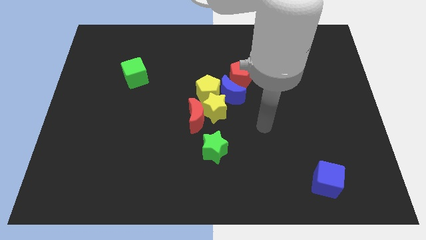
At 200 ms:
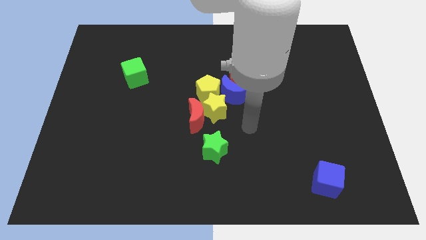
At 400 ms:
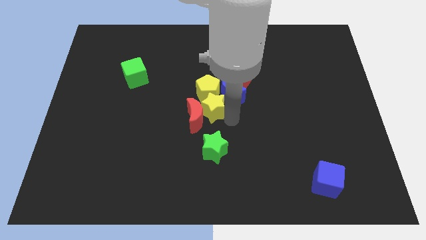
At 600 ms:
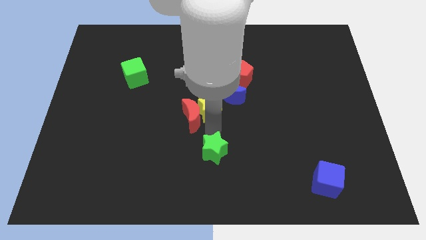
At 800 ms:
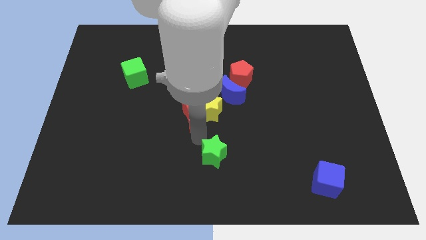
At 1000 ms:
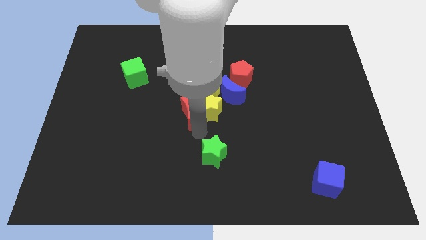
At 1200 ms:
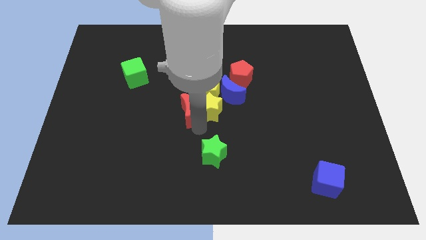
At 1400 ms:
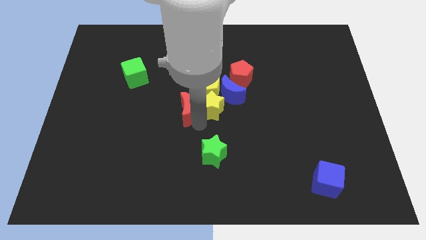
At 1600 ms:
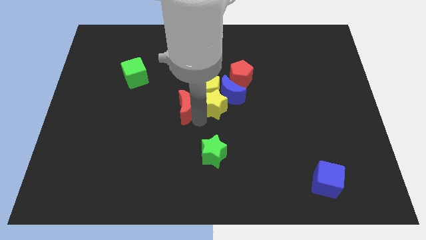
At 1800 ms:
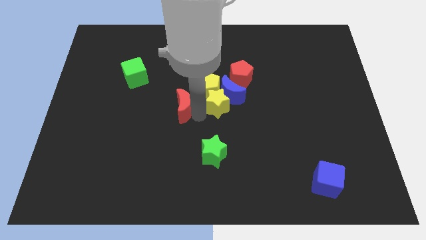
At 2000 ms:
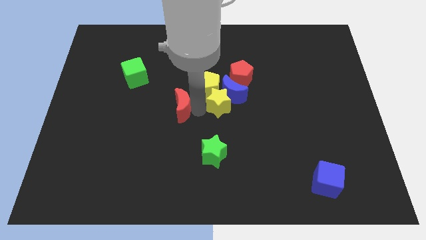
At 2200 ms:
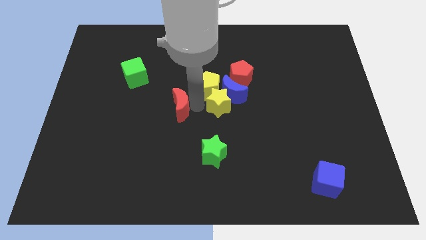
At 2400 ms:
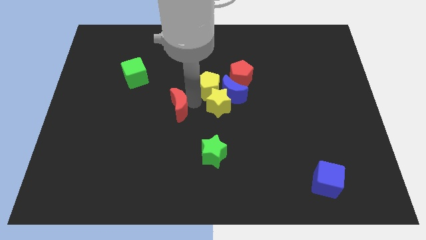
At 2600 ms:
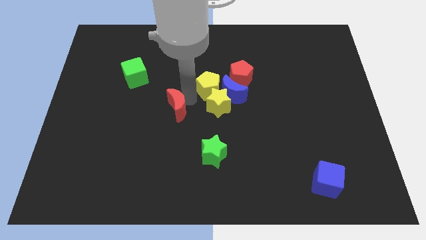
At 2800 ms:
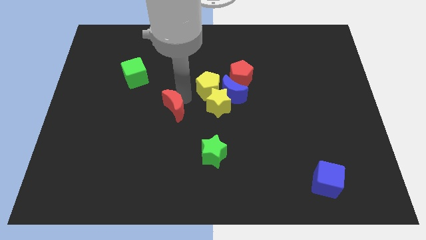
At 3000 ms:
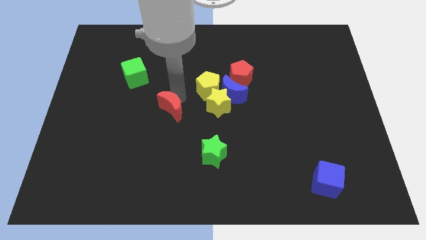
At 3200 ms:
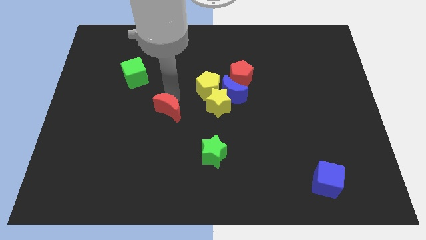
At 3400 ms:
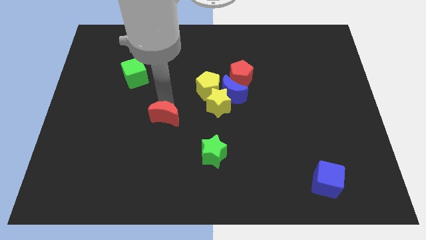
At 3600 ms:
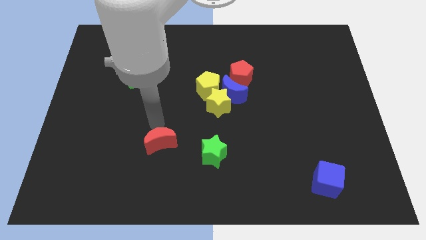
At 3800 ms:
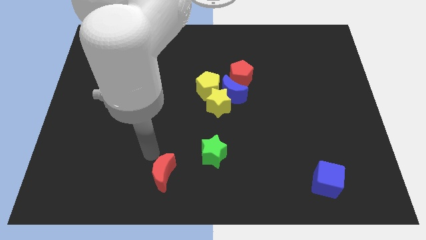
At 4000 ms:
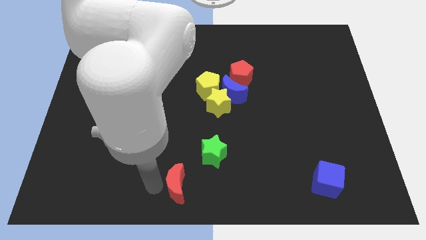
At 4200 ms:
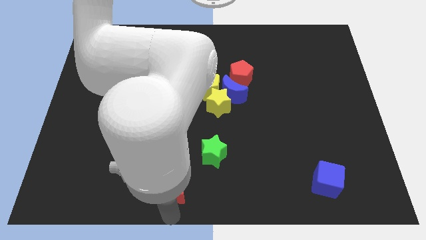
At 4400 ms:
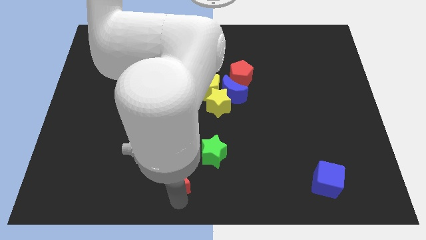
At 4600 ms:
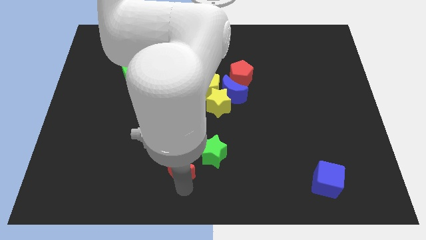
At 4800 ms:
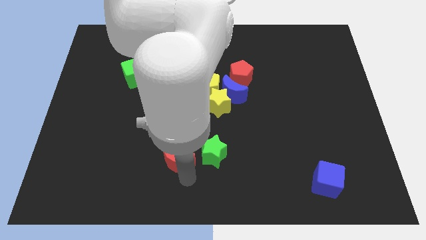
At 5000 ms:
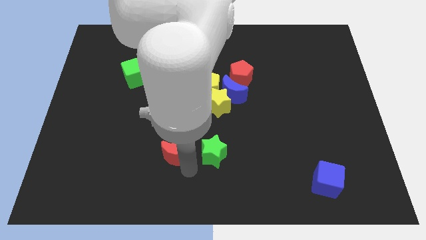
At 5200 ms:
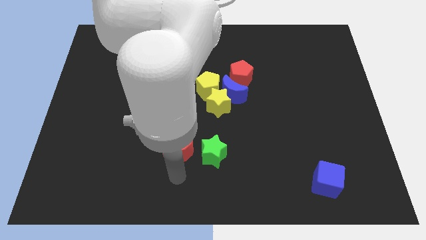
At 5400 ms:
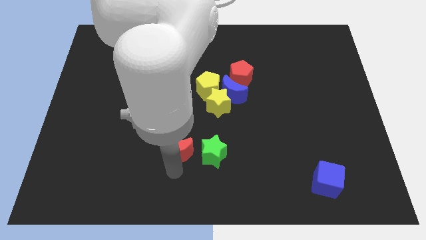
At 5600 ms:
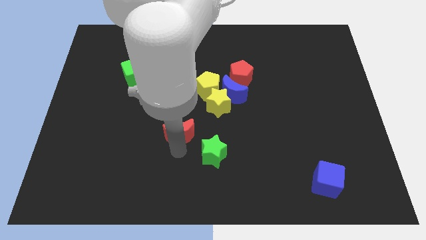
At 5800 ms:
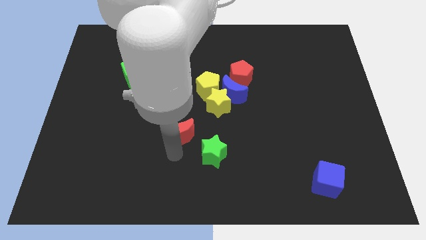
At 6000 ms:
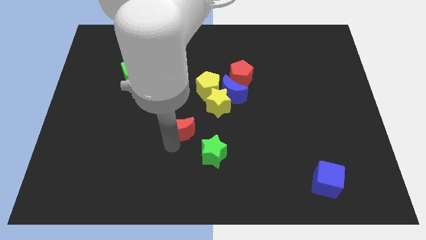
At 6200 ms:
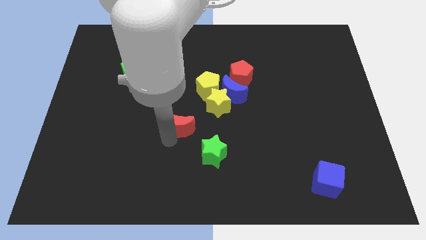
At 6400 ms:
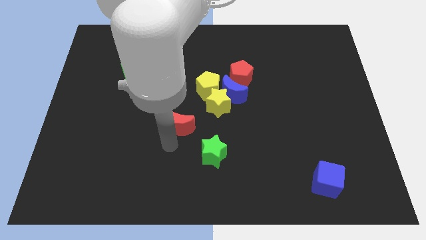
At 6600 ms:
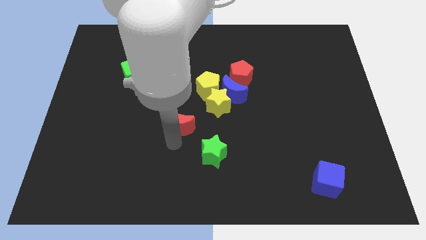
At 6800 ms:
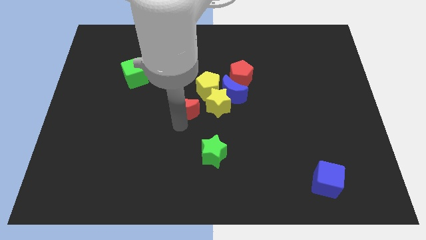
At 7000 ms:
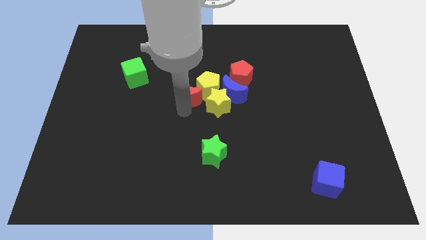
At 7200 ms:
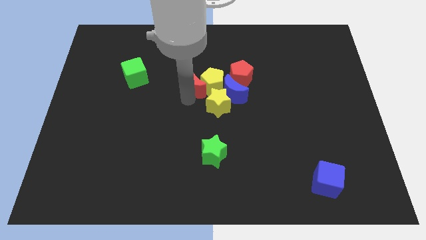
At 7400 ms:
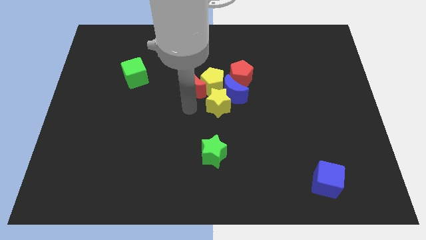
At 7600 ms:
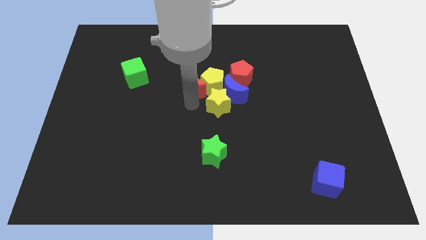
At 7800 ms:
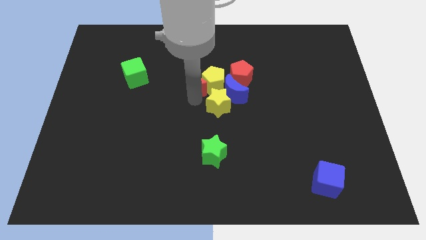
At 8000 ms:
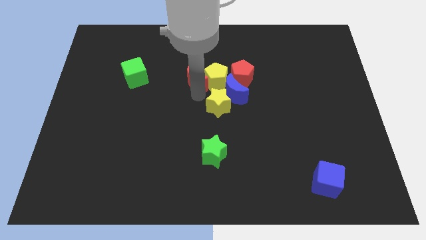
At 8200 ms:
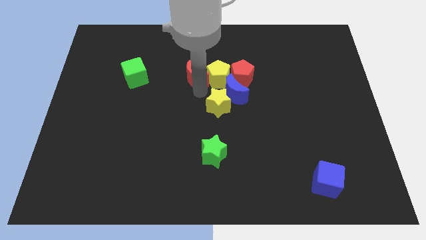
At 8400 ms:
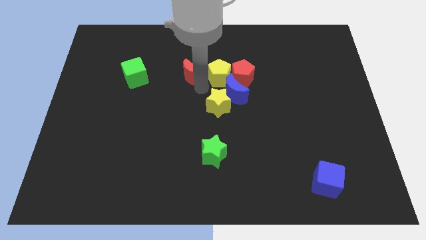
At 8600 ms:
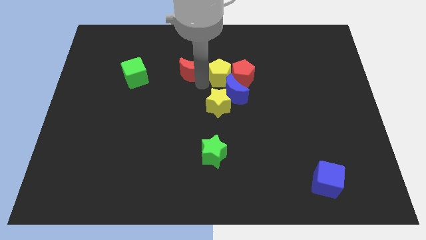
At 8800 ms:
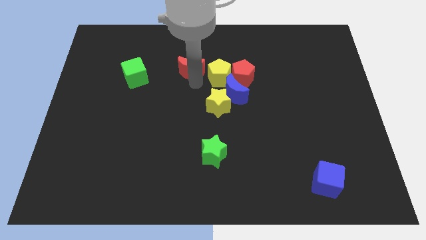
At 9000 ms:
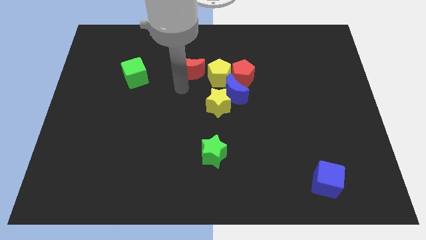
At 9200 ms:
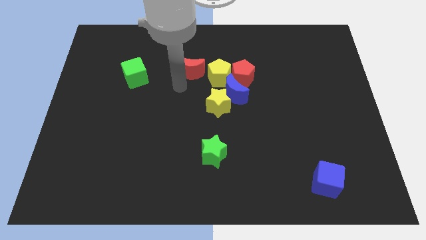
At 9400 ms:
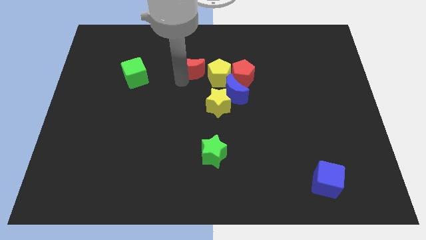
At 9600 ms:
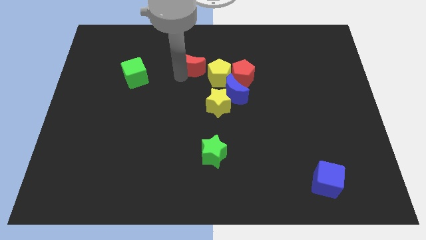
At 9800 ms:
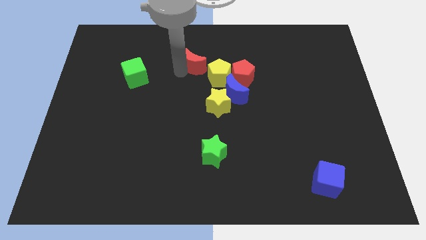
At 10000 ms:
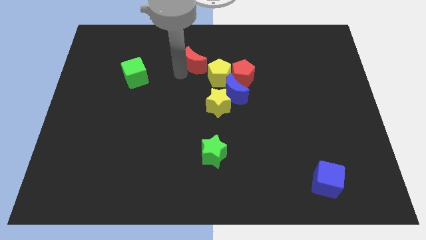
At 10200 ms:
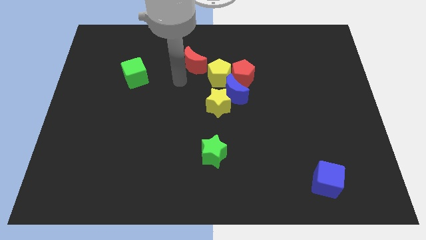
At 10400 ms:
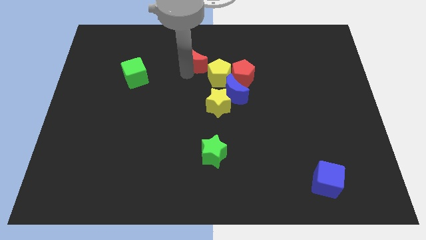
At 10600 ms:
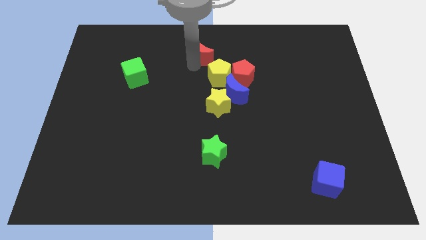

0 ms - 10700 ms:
slide the red moon to the top

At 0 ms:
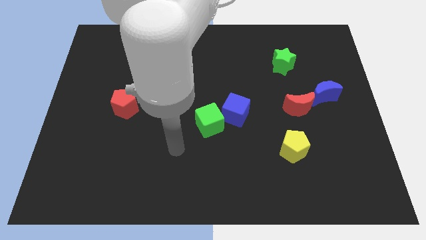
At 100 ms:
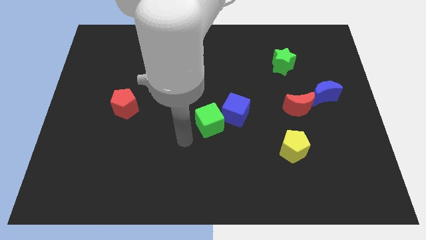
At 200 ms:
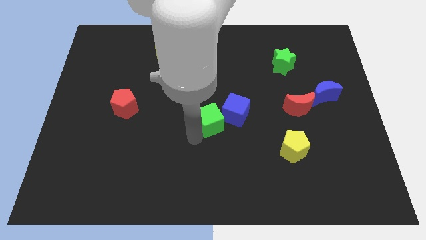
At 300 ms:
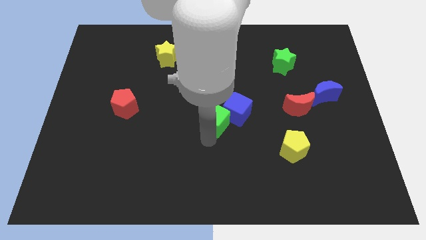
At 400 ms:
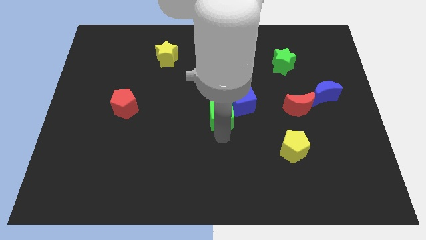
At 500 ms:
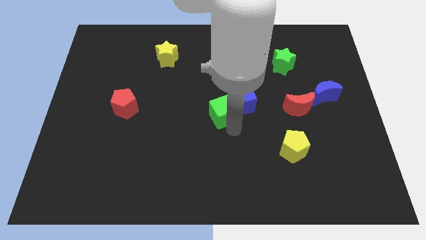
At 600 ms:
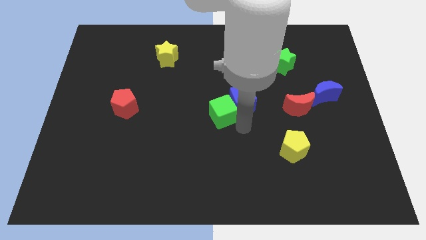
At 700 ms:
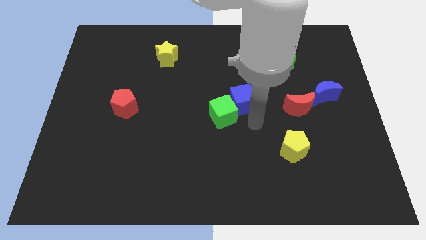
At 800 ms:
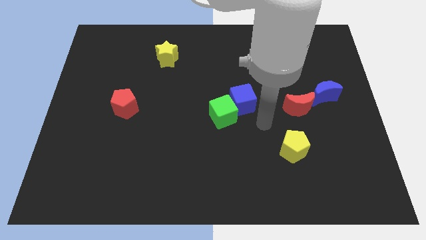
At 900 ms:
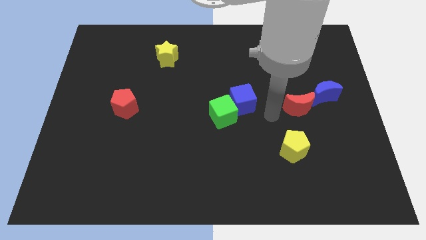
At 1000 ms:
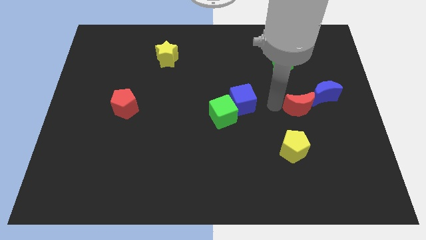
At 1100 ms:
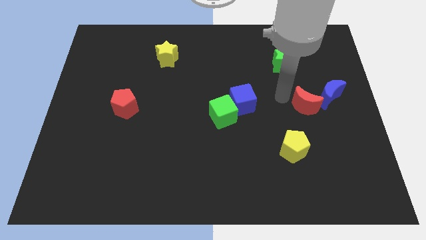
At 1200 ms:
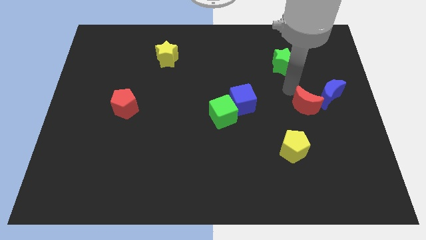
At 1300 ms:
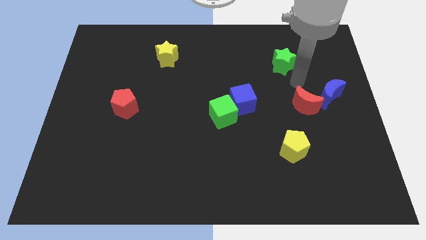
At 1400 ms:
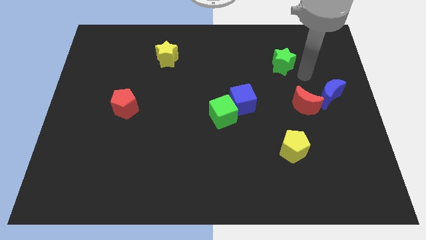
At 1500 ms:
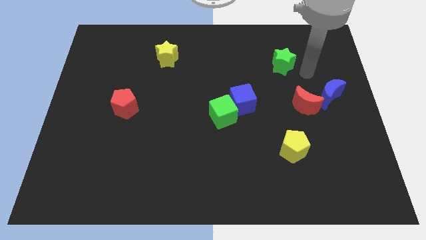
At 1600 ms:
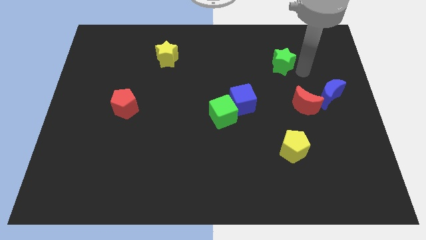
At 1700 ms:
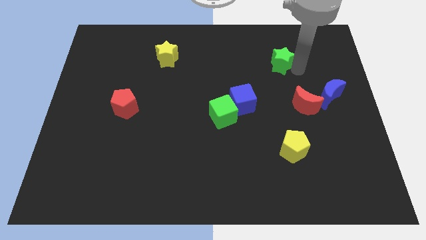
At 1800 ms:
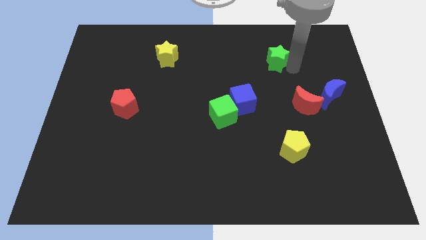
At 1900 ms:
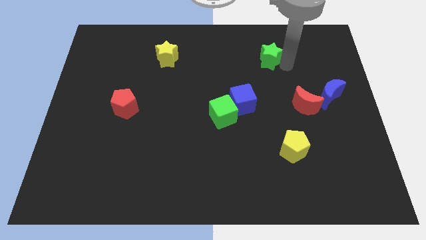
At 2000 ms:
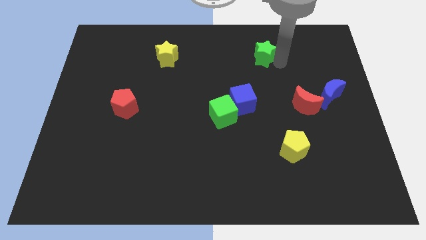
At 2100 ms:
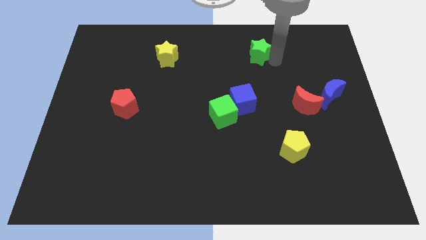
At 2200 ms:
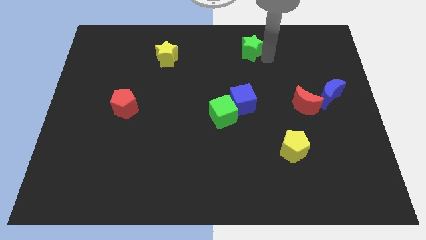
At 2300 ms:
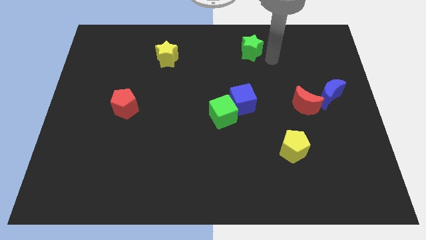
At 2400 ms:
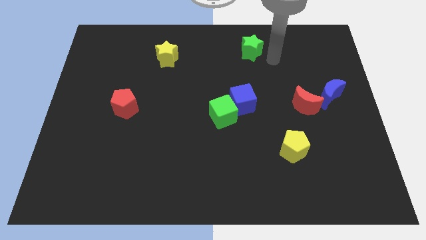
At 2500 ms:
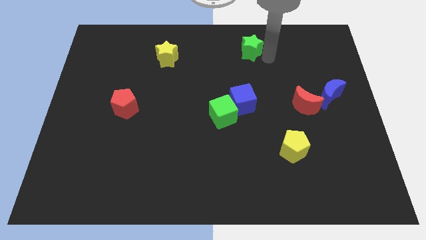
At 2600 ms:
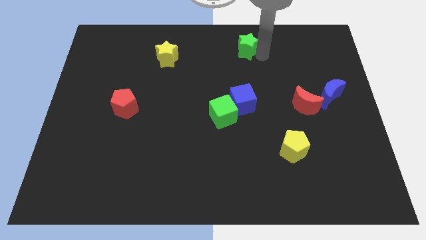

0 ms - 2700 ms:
slide the green star to the top
